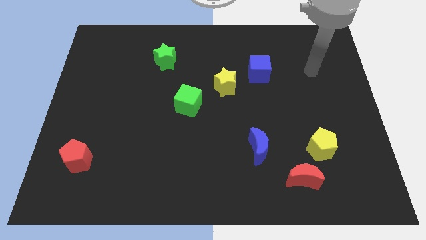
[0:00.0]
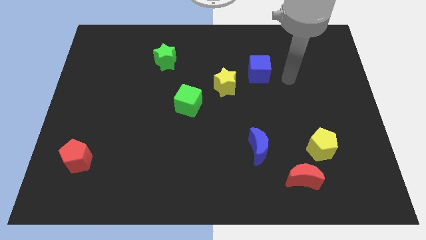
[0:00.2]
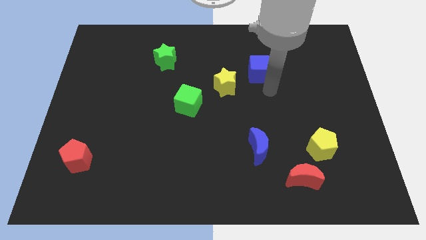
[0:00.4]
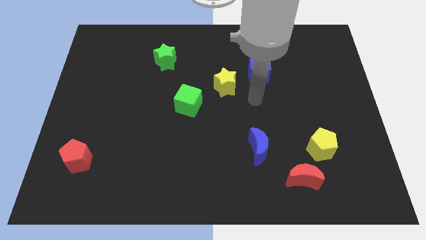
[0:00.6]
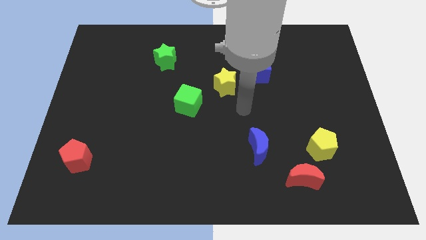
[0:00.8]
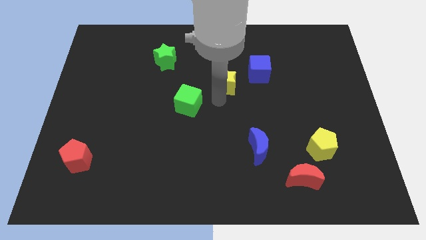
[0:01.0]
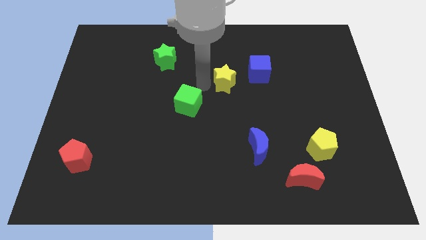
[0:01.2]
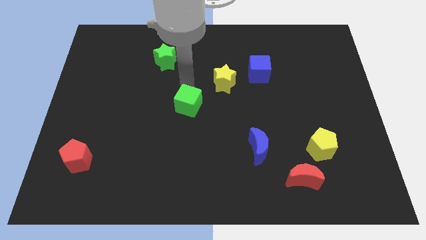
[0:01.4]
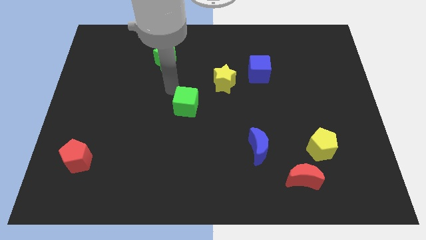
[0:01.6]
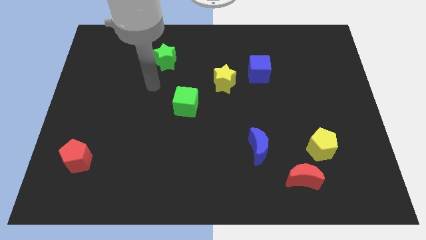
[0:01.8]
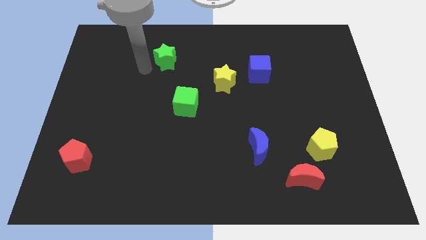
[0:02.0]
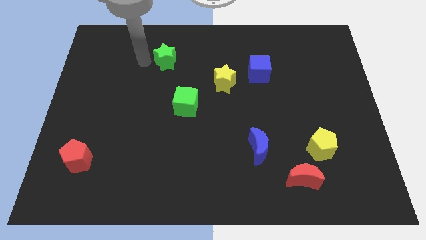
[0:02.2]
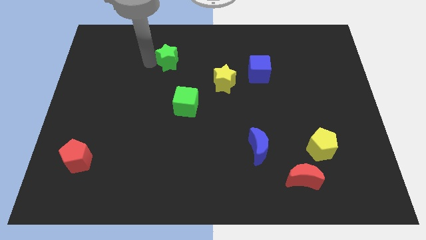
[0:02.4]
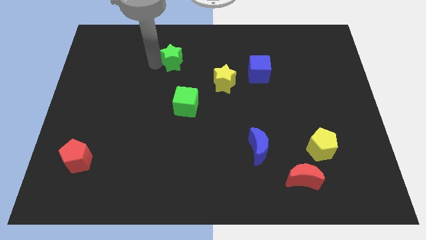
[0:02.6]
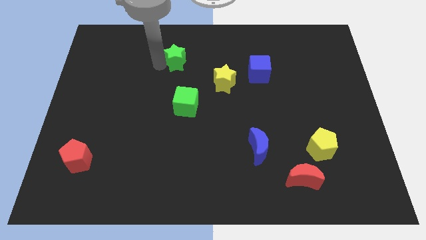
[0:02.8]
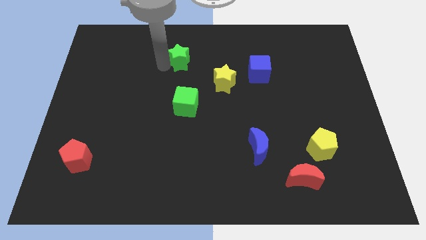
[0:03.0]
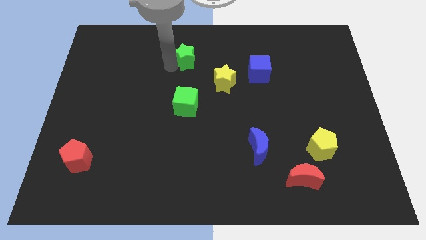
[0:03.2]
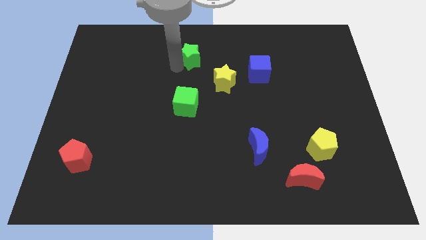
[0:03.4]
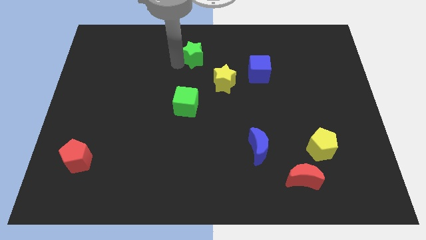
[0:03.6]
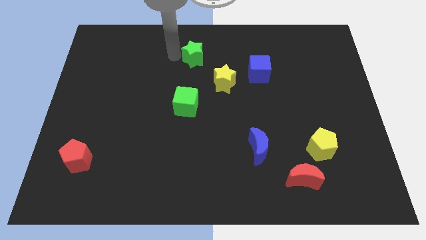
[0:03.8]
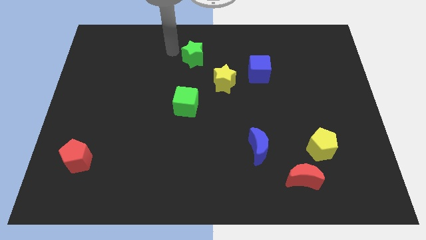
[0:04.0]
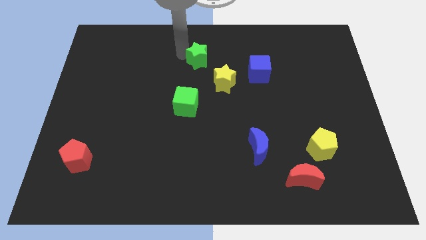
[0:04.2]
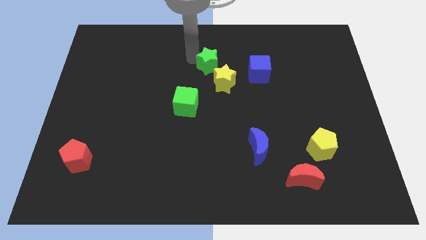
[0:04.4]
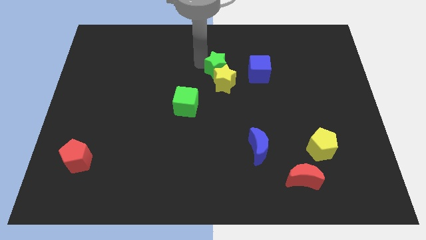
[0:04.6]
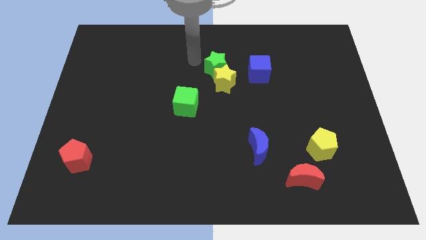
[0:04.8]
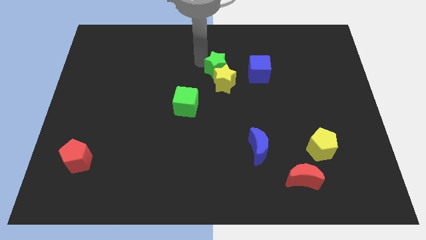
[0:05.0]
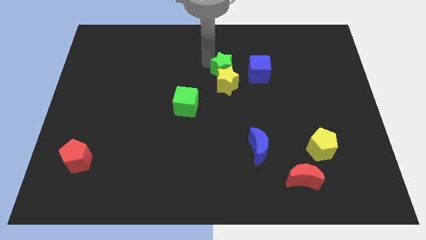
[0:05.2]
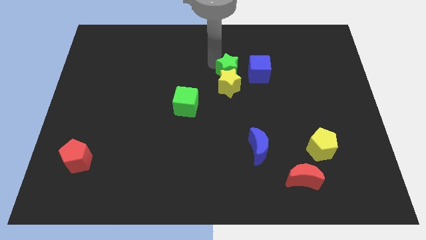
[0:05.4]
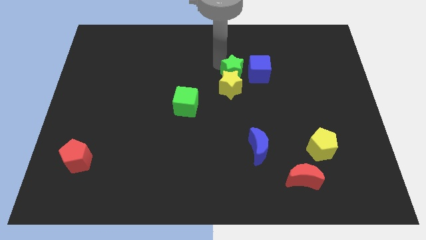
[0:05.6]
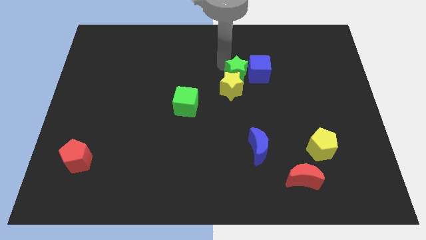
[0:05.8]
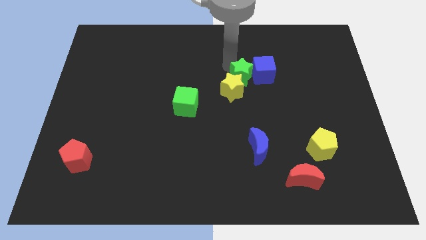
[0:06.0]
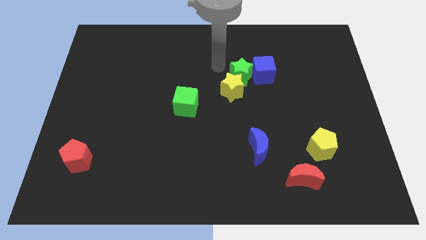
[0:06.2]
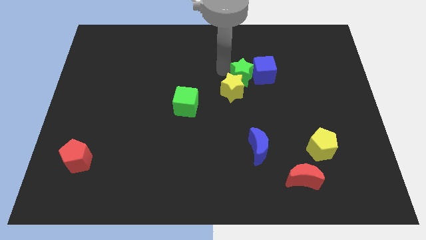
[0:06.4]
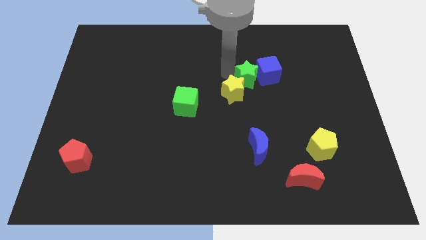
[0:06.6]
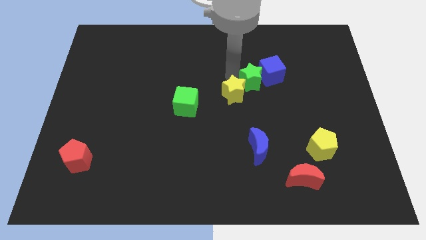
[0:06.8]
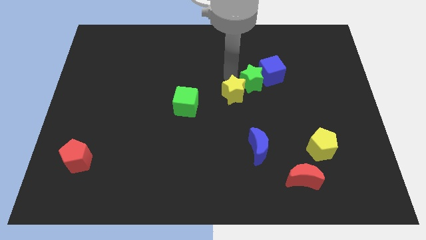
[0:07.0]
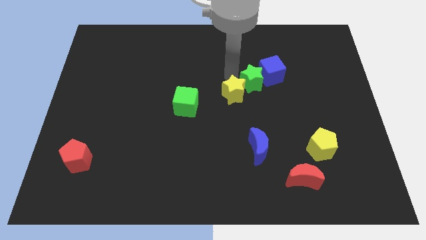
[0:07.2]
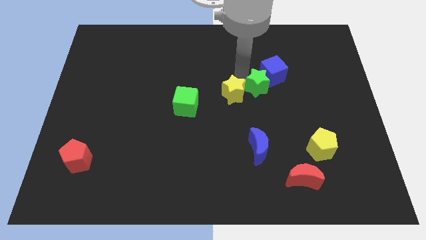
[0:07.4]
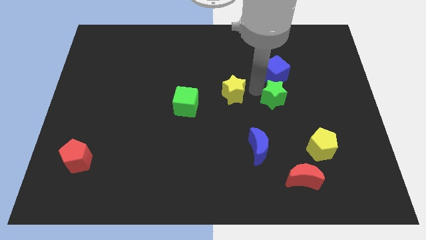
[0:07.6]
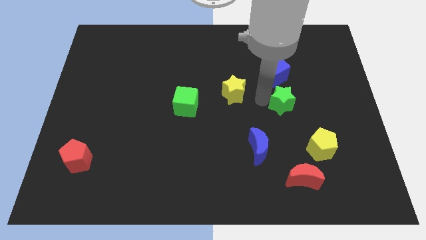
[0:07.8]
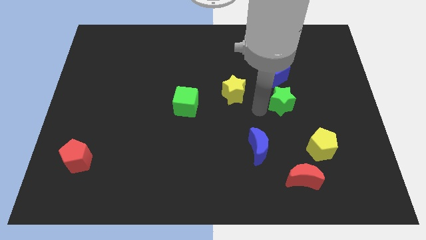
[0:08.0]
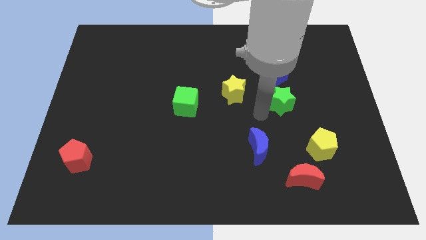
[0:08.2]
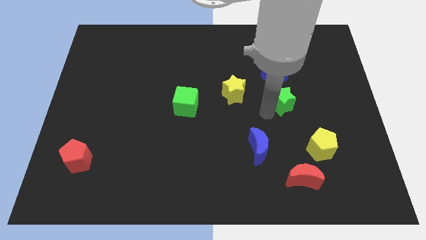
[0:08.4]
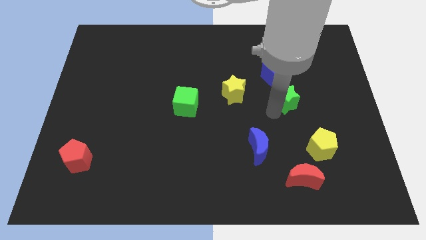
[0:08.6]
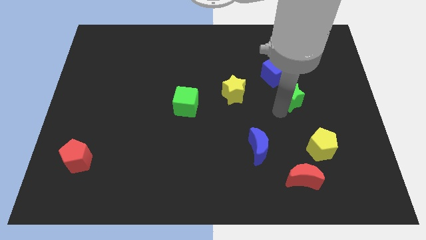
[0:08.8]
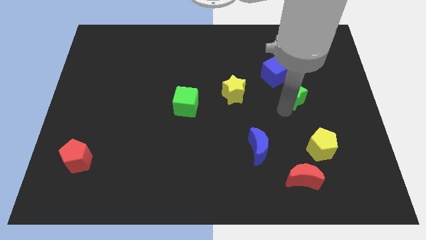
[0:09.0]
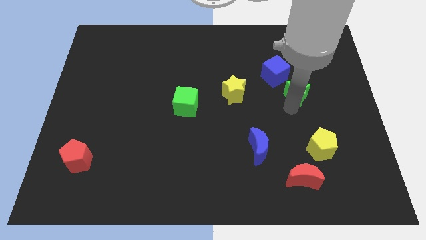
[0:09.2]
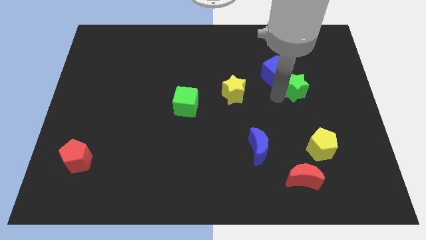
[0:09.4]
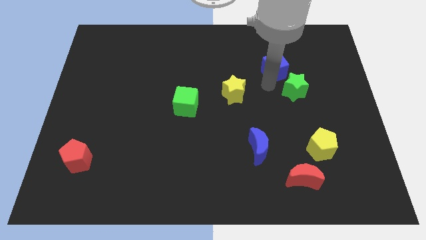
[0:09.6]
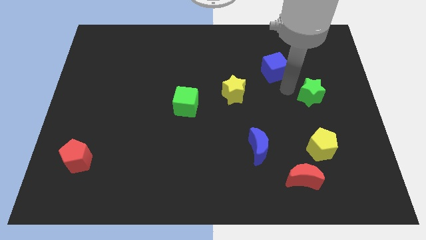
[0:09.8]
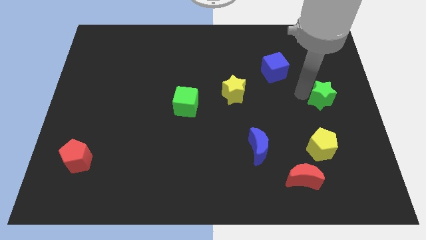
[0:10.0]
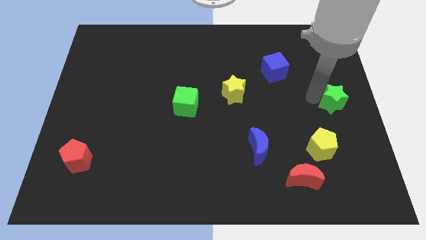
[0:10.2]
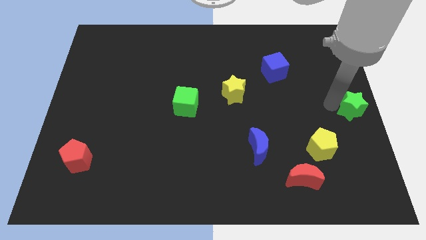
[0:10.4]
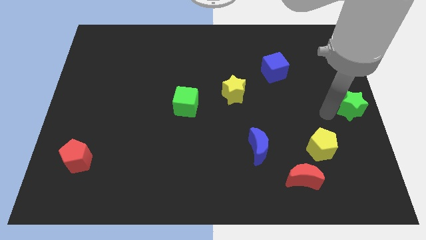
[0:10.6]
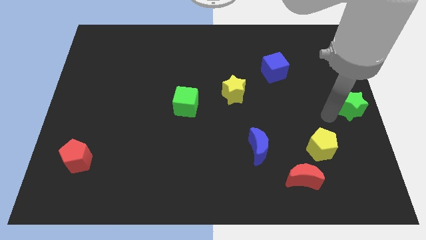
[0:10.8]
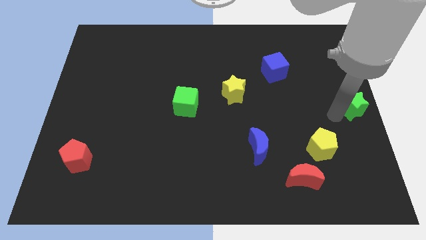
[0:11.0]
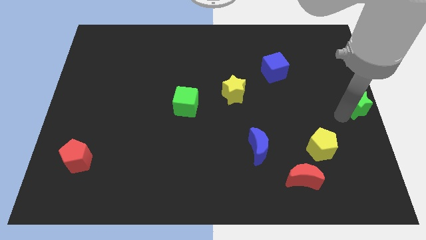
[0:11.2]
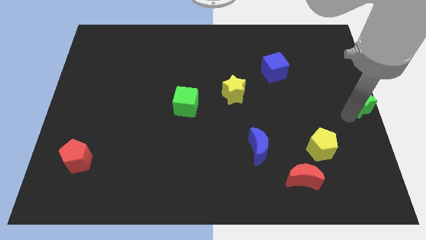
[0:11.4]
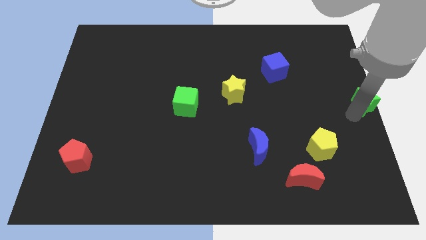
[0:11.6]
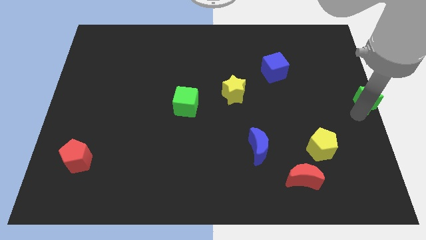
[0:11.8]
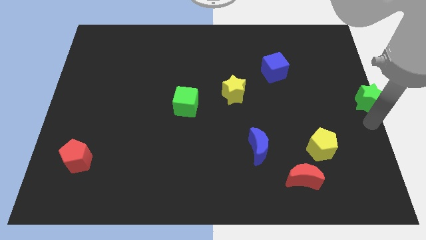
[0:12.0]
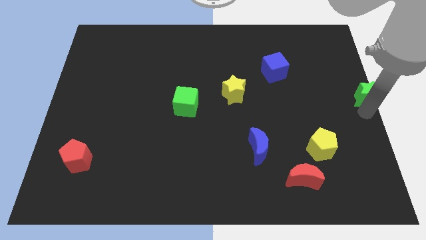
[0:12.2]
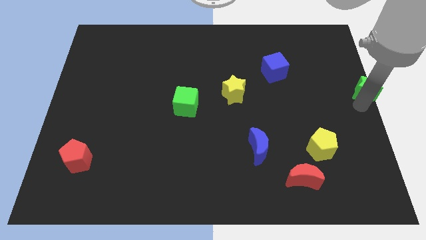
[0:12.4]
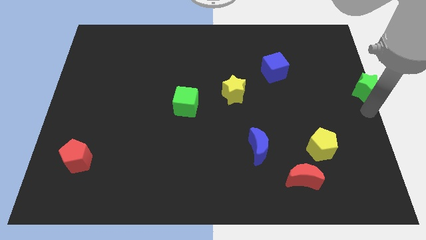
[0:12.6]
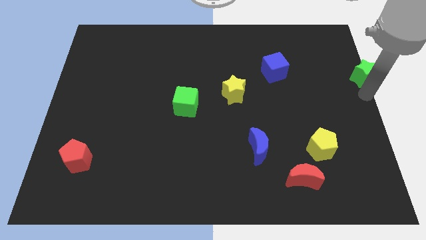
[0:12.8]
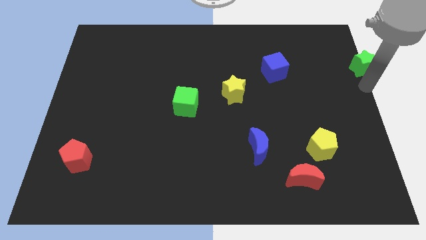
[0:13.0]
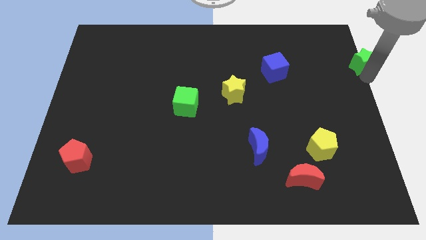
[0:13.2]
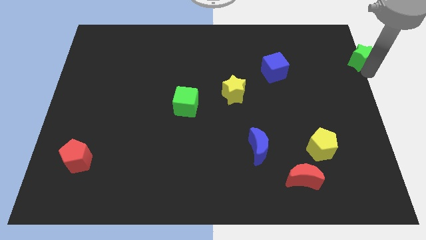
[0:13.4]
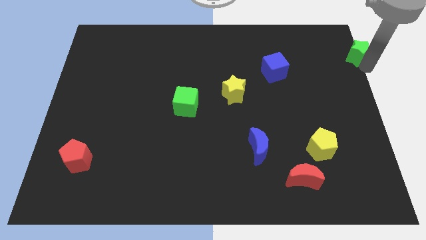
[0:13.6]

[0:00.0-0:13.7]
slide the green star to the top right
